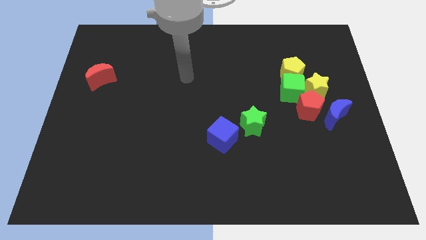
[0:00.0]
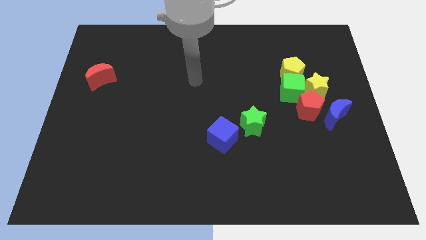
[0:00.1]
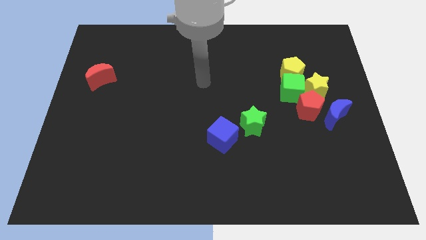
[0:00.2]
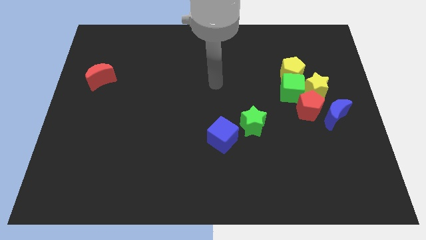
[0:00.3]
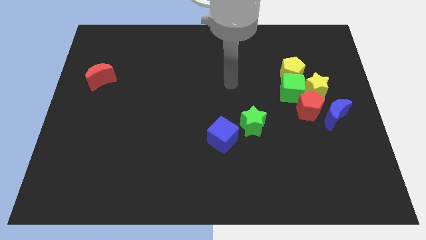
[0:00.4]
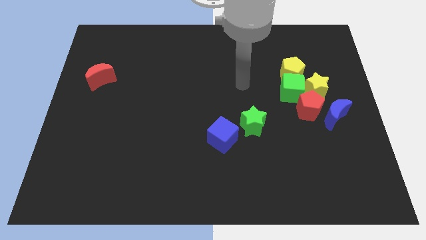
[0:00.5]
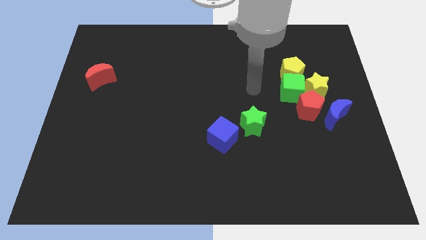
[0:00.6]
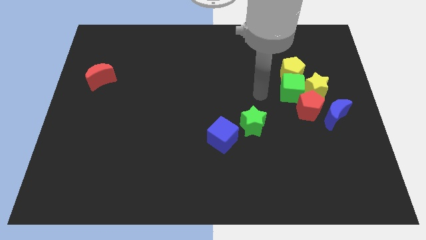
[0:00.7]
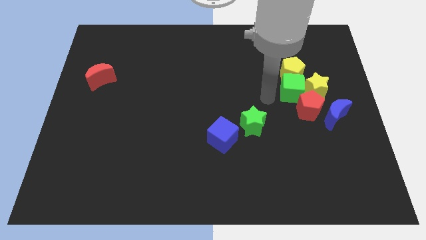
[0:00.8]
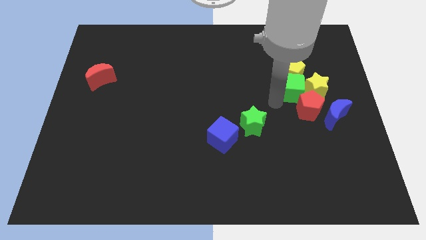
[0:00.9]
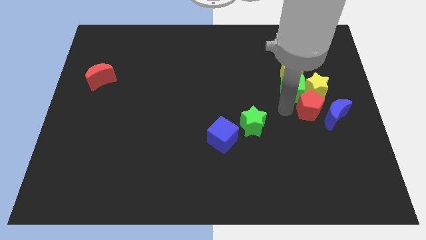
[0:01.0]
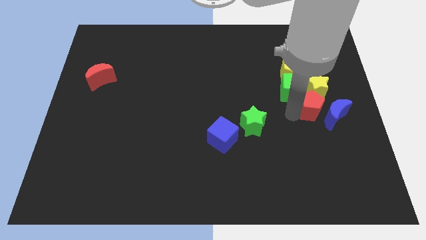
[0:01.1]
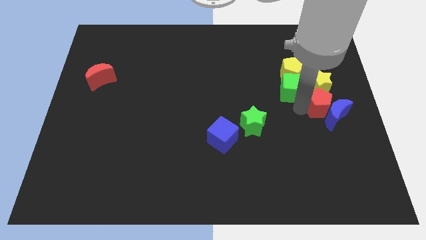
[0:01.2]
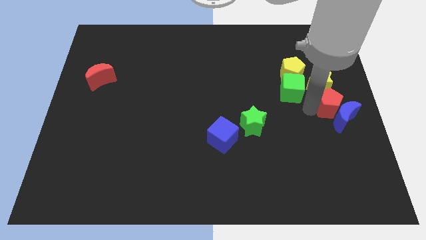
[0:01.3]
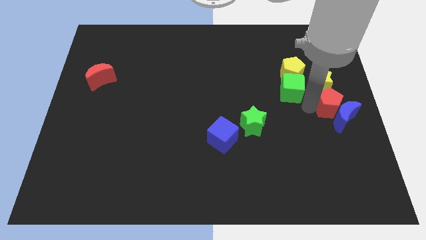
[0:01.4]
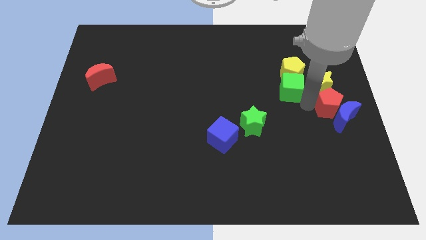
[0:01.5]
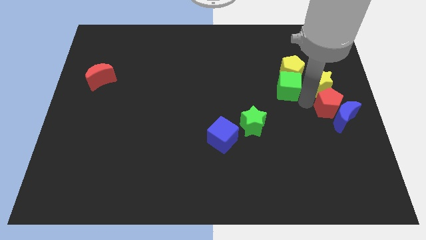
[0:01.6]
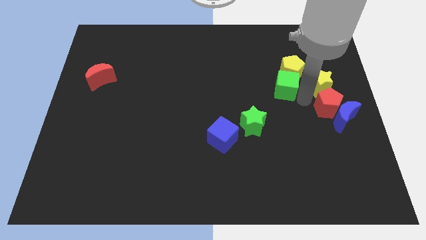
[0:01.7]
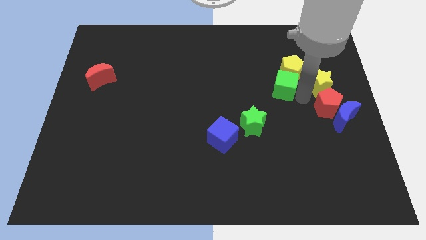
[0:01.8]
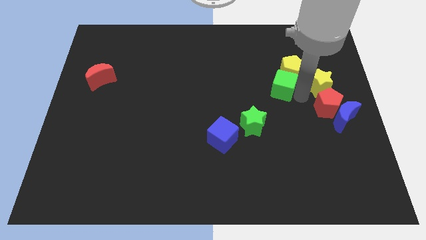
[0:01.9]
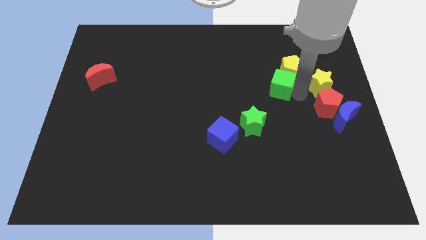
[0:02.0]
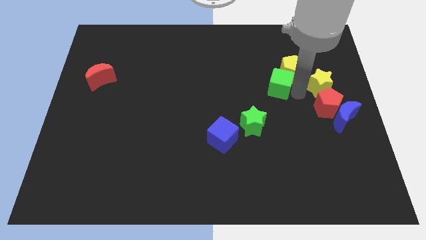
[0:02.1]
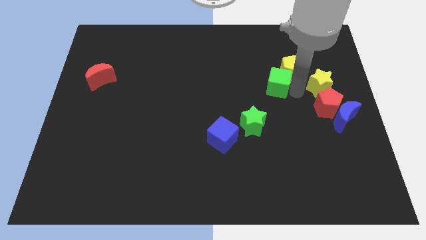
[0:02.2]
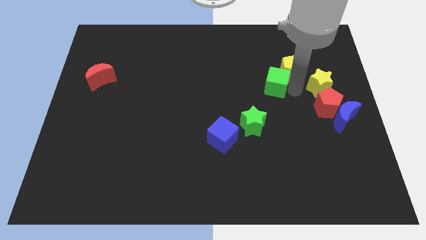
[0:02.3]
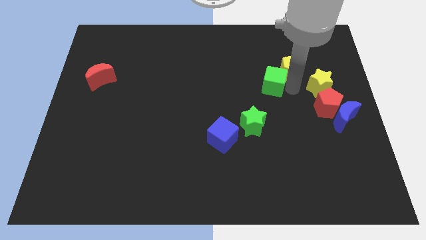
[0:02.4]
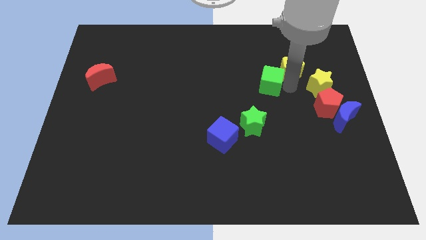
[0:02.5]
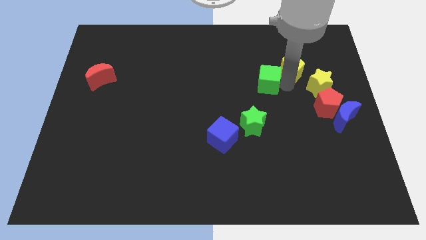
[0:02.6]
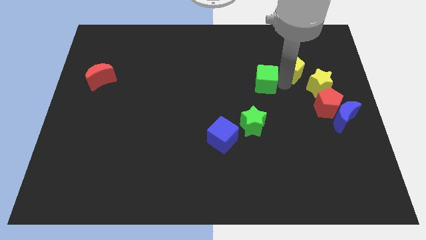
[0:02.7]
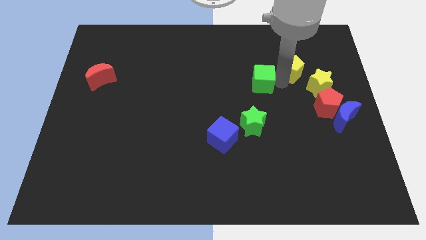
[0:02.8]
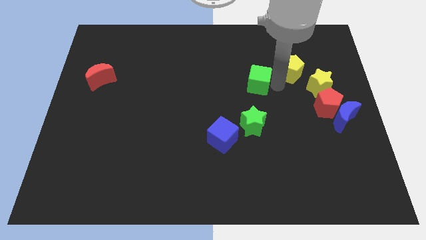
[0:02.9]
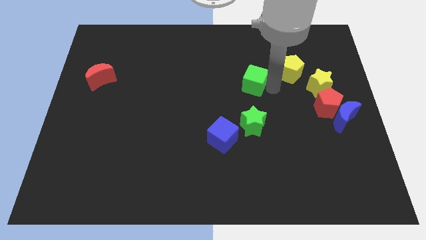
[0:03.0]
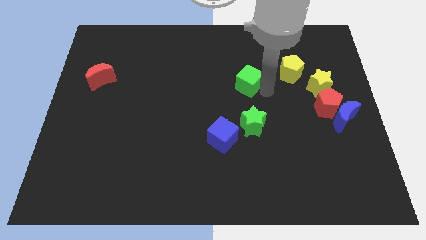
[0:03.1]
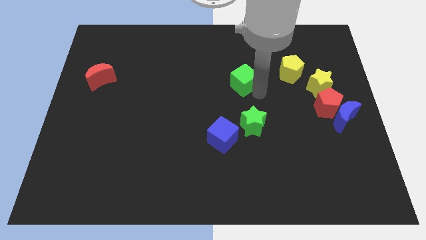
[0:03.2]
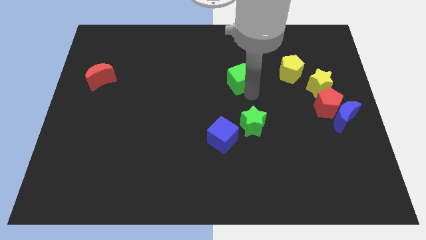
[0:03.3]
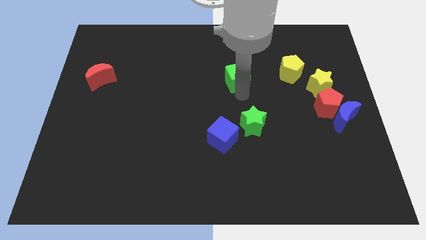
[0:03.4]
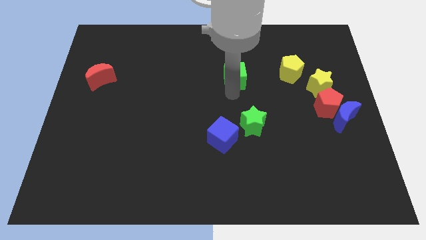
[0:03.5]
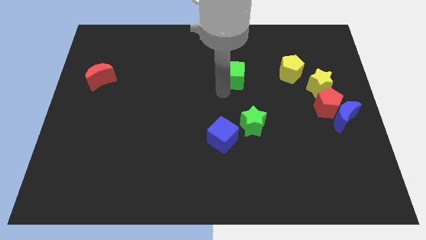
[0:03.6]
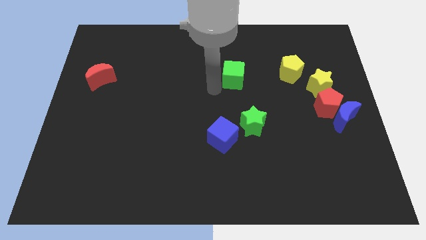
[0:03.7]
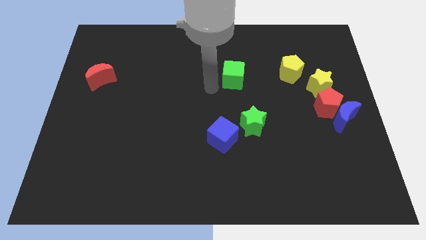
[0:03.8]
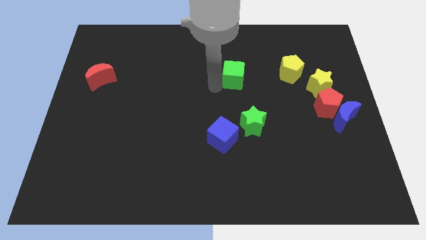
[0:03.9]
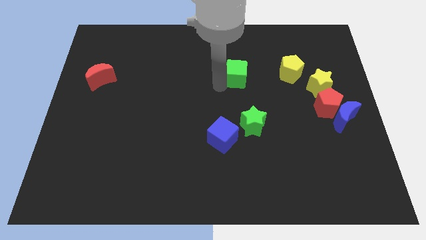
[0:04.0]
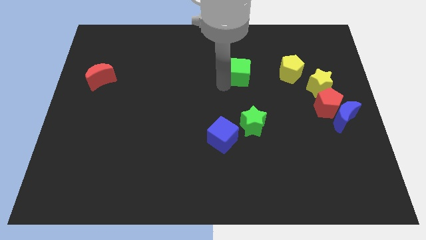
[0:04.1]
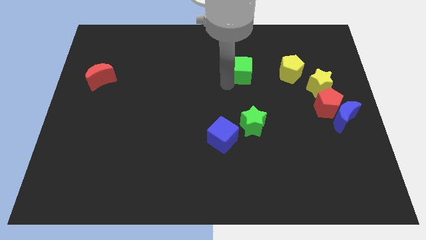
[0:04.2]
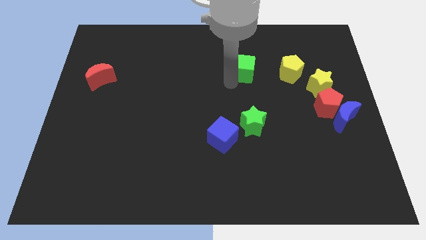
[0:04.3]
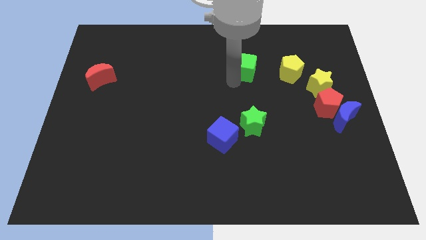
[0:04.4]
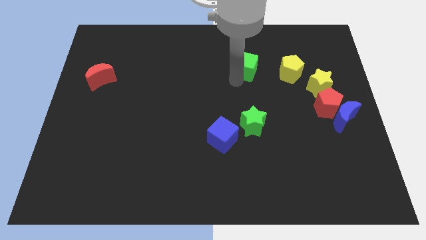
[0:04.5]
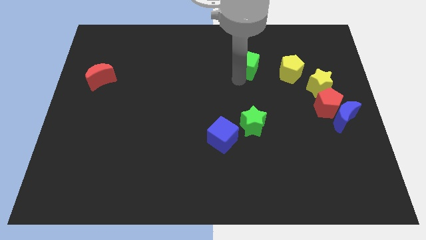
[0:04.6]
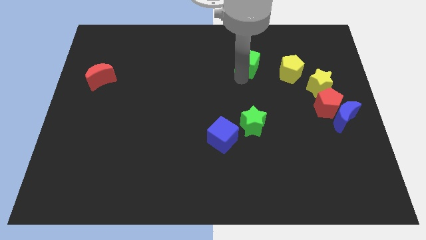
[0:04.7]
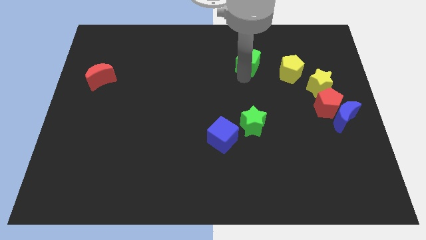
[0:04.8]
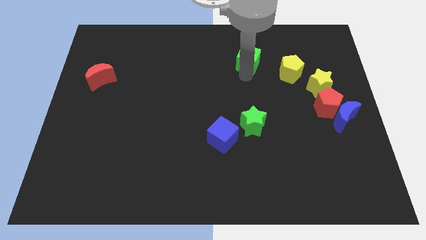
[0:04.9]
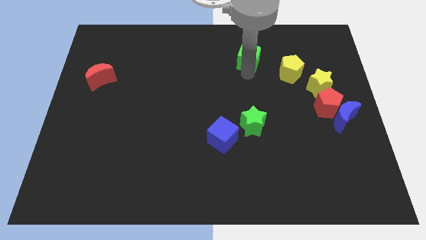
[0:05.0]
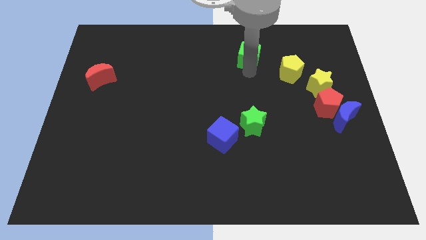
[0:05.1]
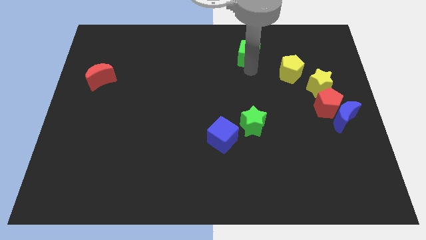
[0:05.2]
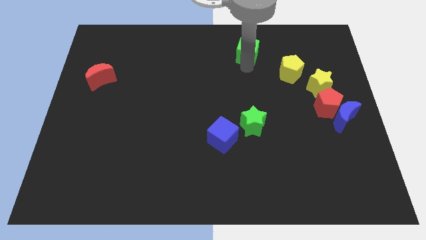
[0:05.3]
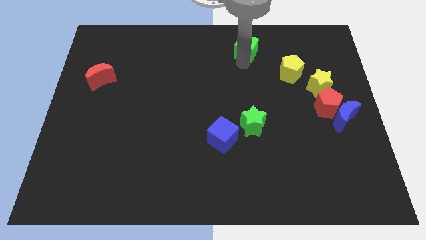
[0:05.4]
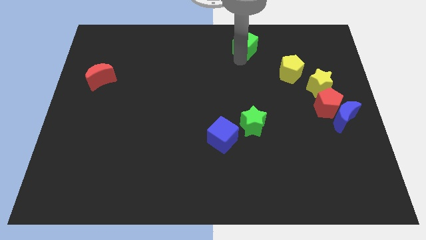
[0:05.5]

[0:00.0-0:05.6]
push the green cube to the top

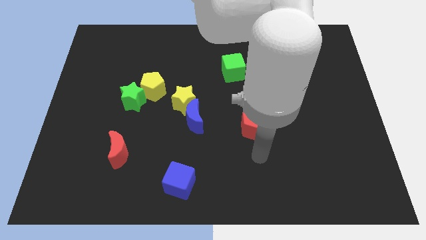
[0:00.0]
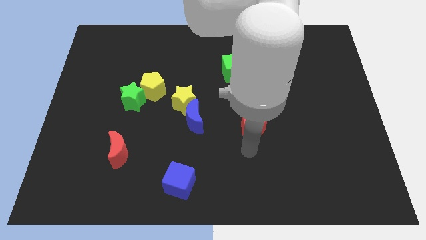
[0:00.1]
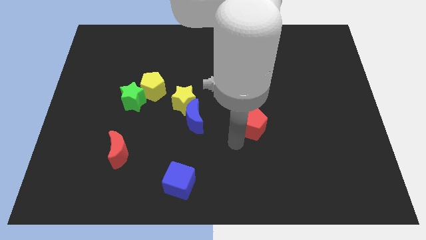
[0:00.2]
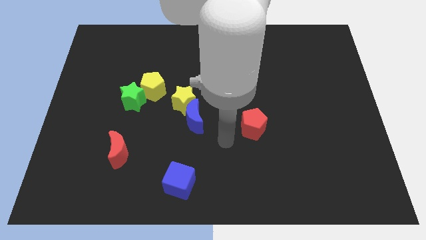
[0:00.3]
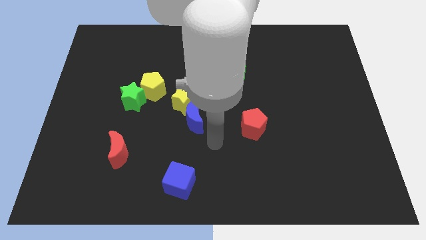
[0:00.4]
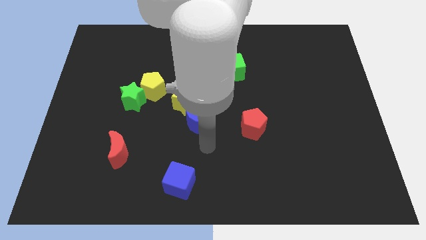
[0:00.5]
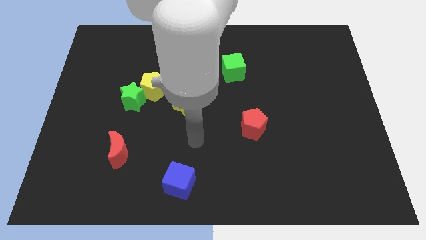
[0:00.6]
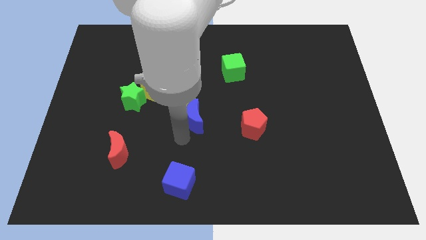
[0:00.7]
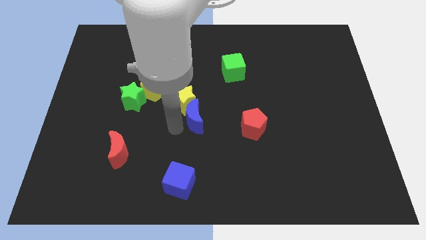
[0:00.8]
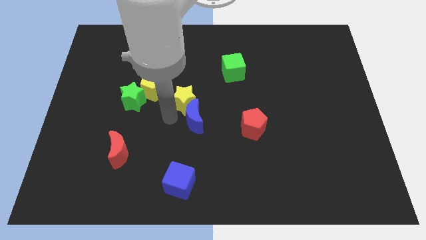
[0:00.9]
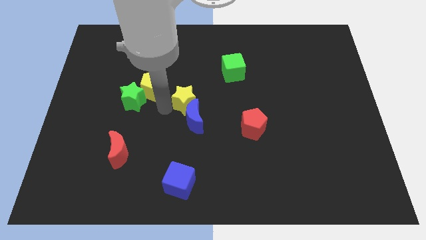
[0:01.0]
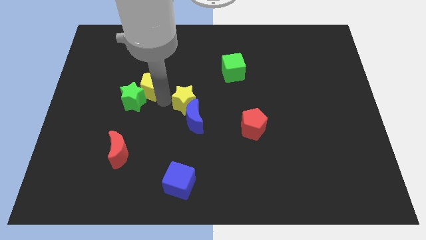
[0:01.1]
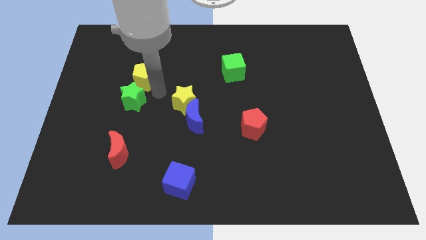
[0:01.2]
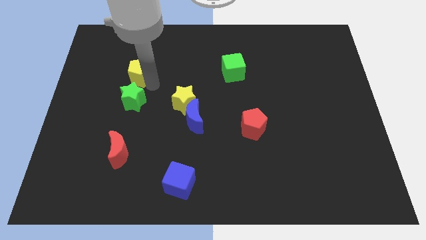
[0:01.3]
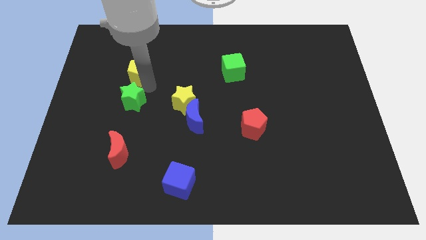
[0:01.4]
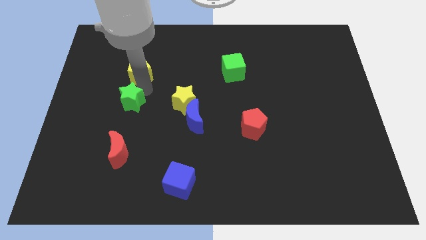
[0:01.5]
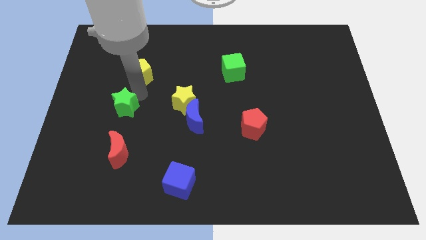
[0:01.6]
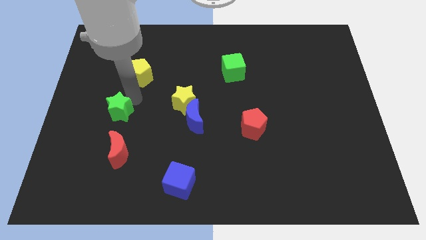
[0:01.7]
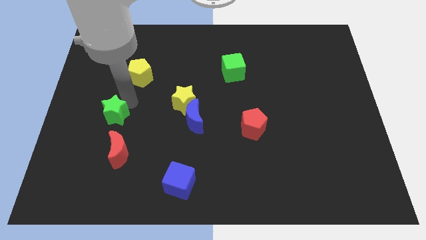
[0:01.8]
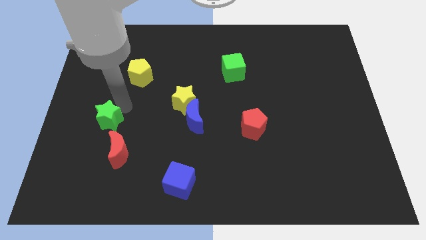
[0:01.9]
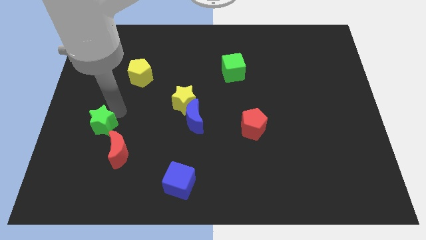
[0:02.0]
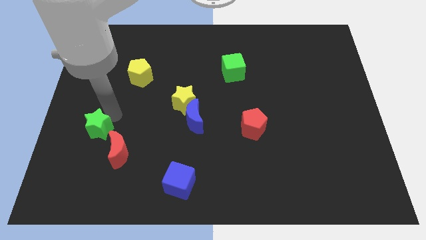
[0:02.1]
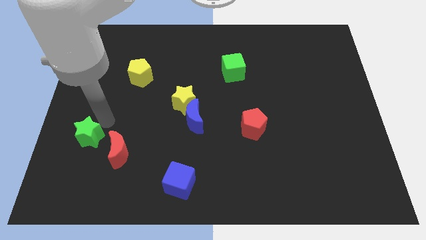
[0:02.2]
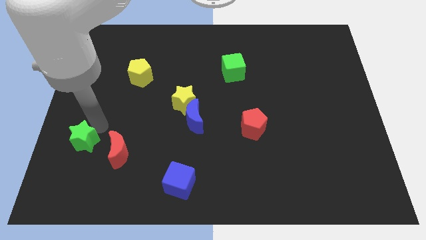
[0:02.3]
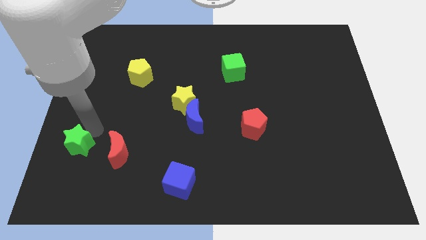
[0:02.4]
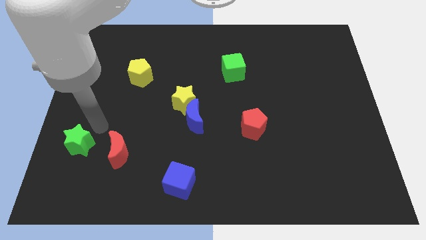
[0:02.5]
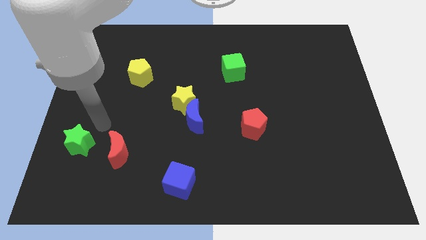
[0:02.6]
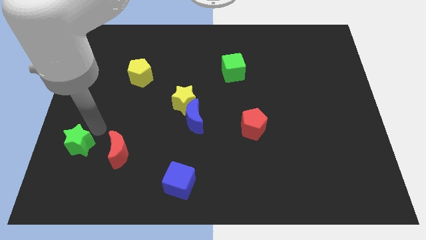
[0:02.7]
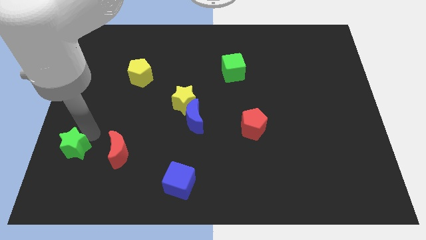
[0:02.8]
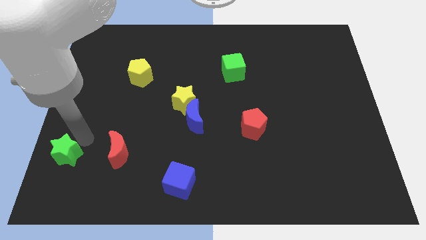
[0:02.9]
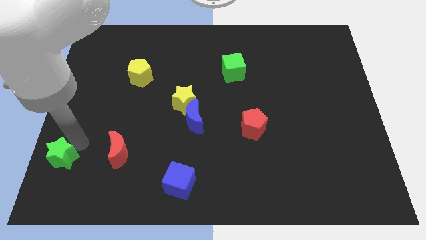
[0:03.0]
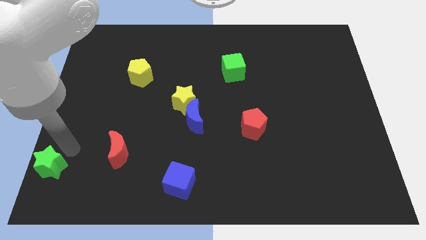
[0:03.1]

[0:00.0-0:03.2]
push the green star to the bottom left of the board
